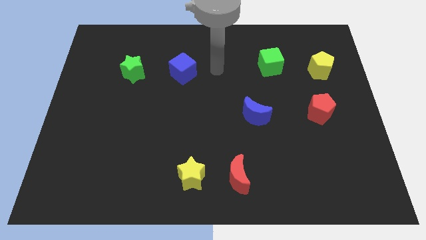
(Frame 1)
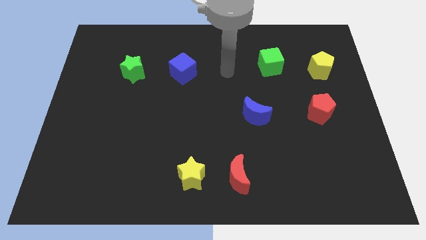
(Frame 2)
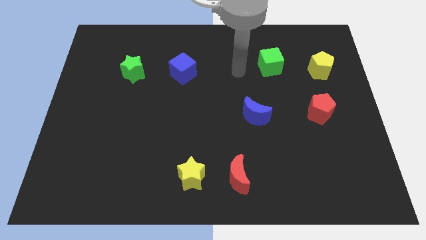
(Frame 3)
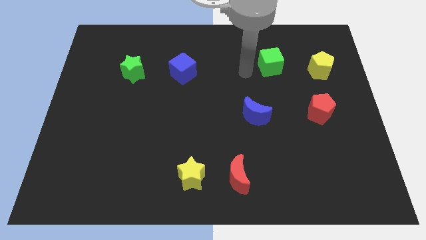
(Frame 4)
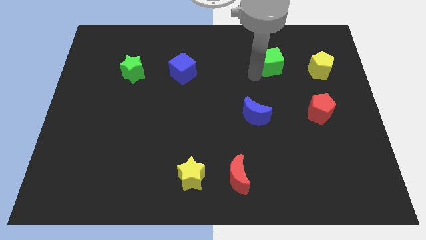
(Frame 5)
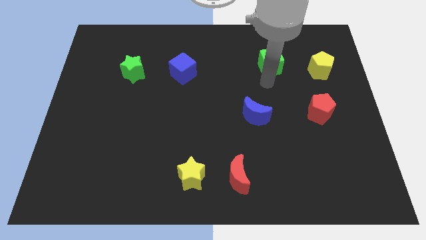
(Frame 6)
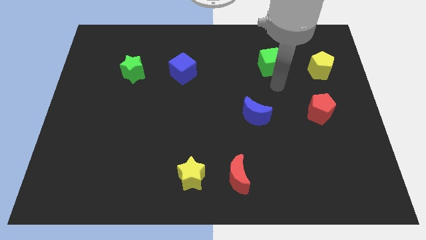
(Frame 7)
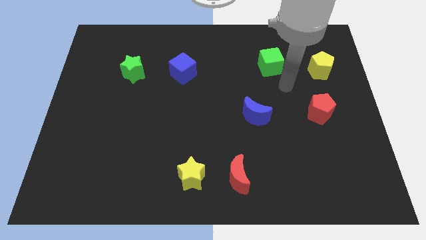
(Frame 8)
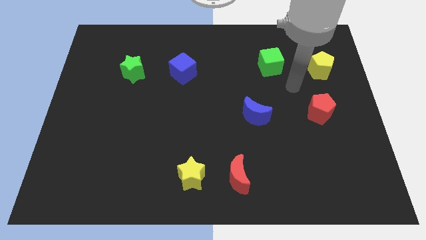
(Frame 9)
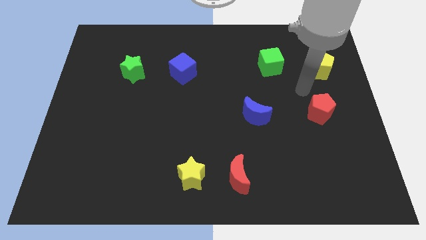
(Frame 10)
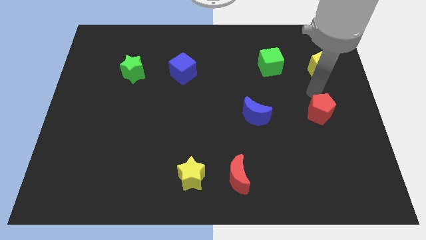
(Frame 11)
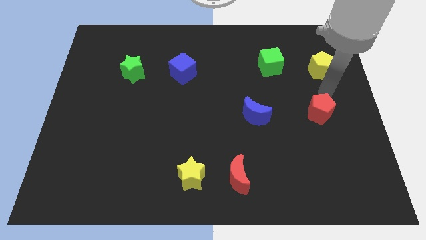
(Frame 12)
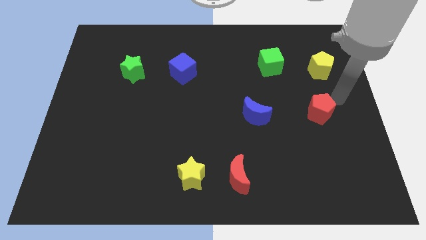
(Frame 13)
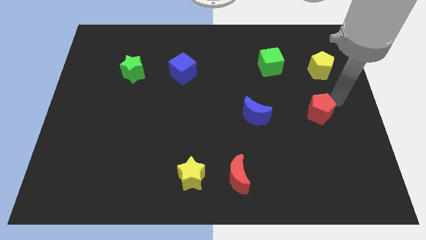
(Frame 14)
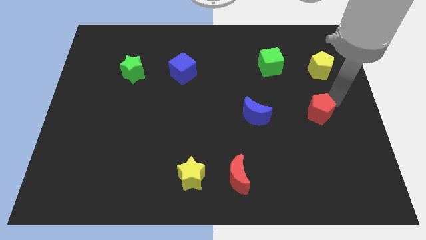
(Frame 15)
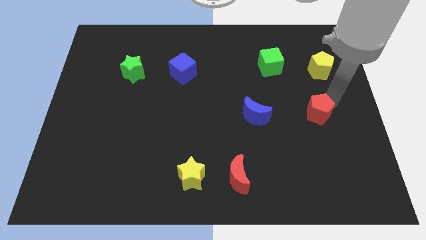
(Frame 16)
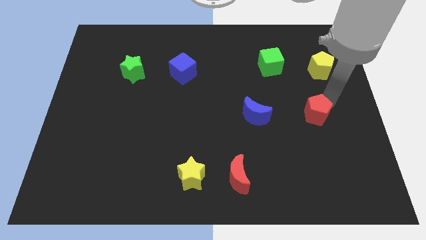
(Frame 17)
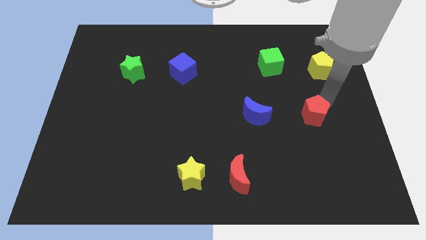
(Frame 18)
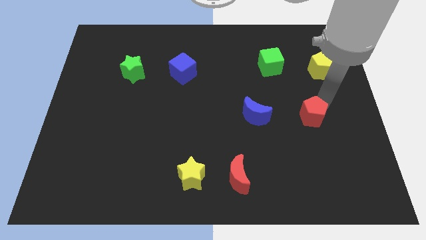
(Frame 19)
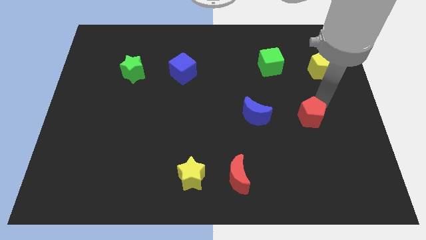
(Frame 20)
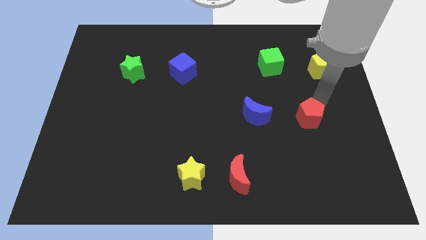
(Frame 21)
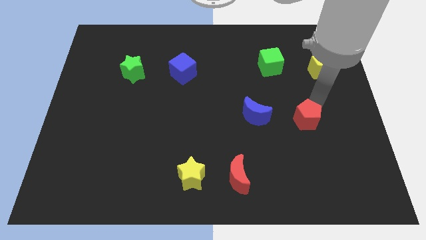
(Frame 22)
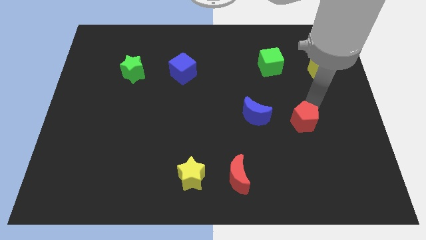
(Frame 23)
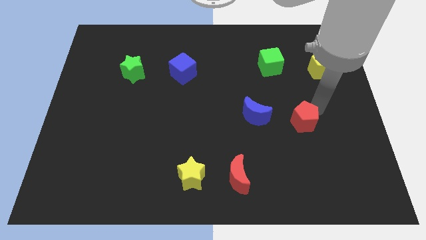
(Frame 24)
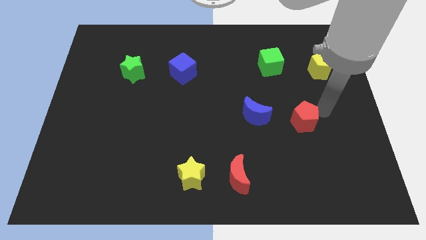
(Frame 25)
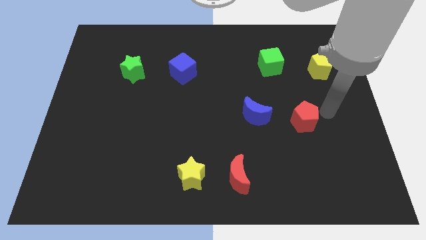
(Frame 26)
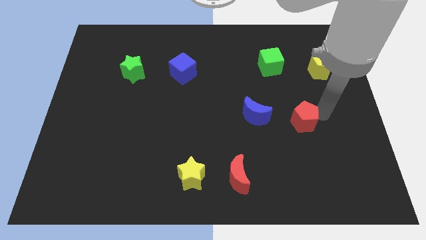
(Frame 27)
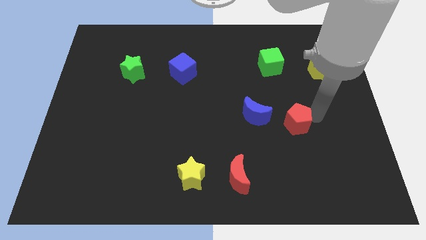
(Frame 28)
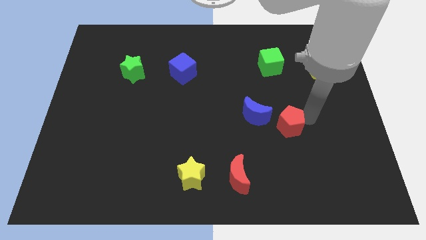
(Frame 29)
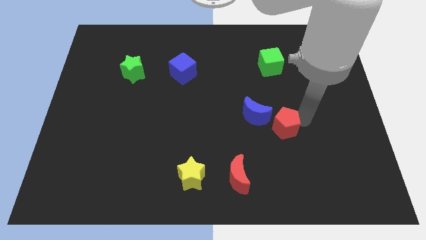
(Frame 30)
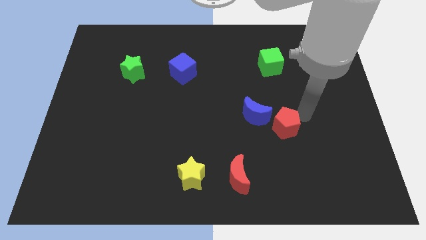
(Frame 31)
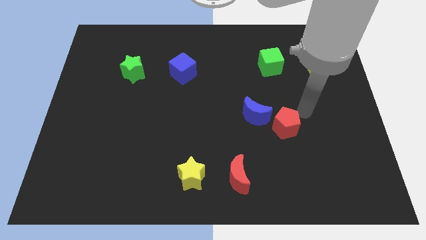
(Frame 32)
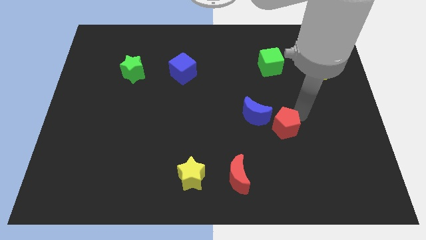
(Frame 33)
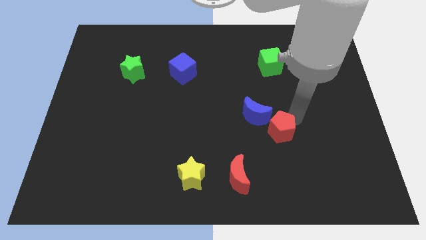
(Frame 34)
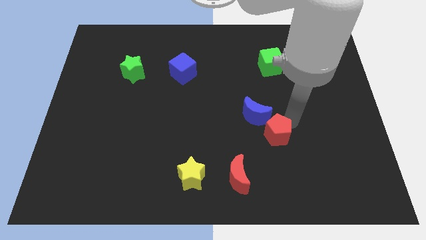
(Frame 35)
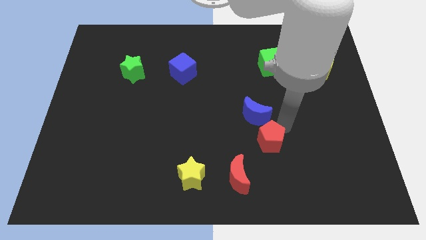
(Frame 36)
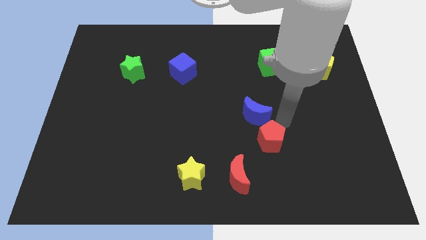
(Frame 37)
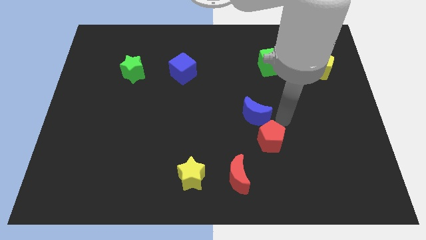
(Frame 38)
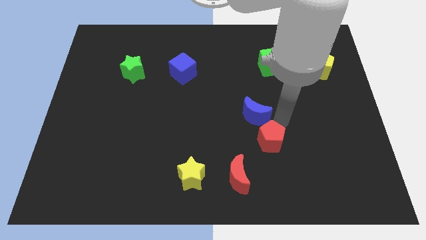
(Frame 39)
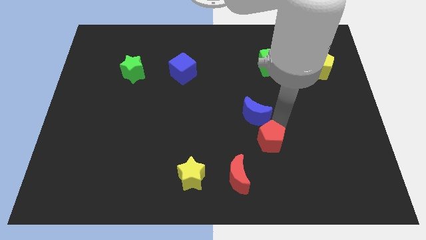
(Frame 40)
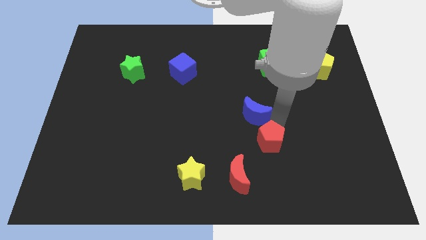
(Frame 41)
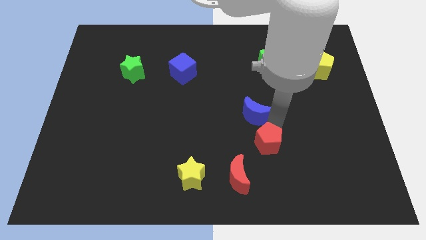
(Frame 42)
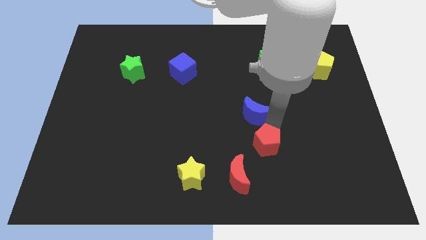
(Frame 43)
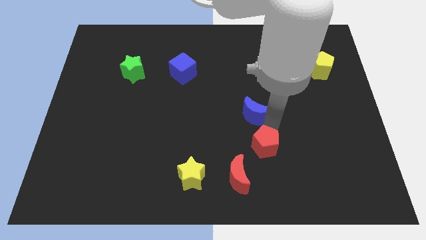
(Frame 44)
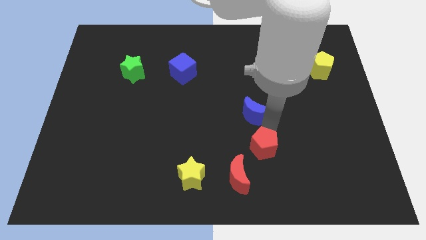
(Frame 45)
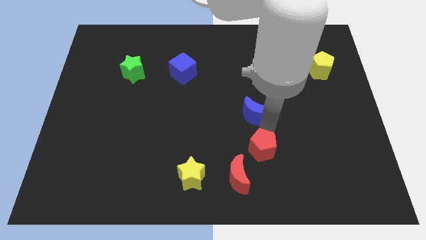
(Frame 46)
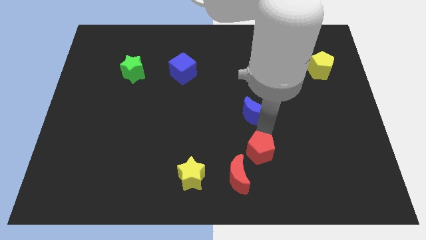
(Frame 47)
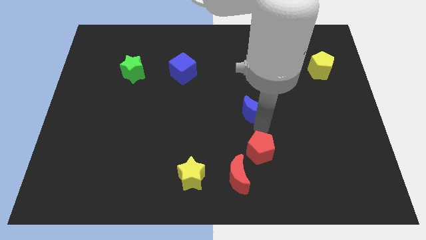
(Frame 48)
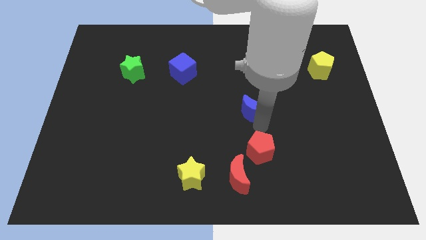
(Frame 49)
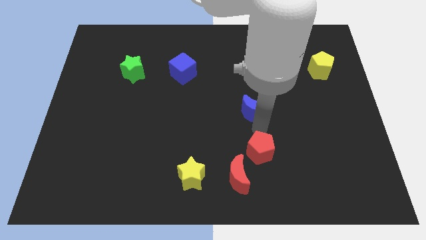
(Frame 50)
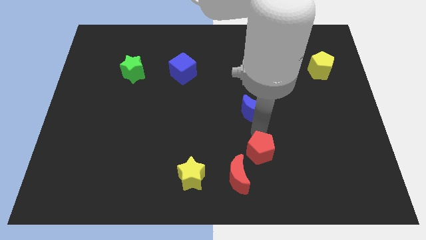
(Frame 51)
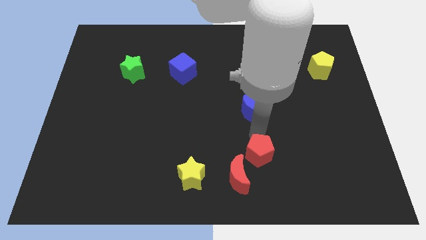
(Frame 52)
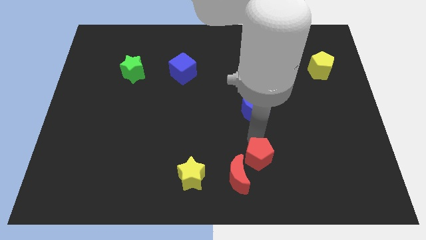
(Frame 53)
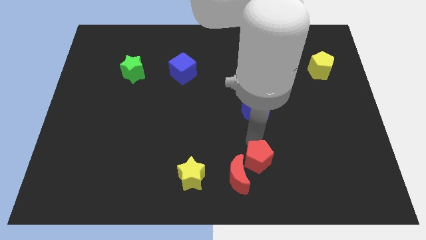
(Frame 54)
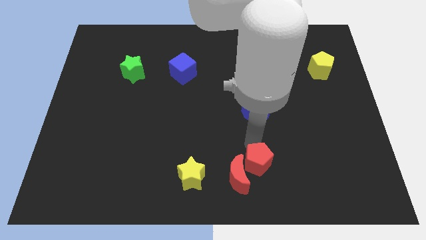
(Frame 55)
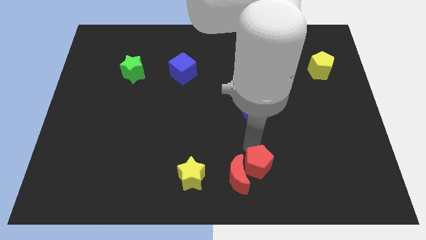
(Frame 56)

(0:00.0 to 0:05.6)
push the red pentagon to the bottom
